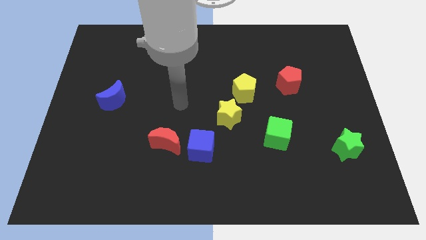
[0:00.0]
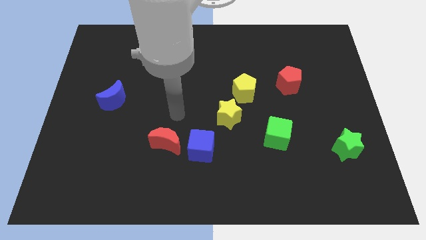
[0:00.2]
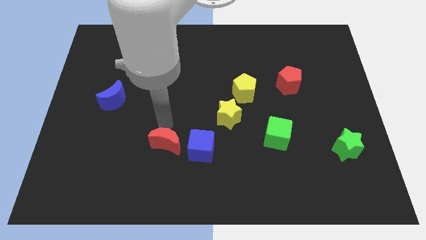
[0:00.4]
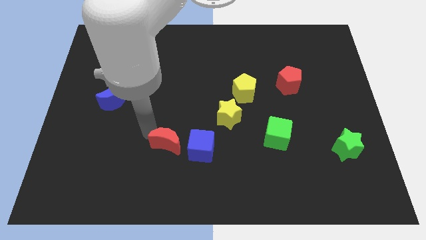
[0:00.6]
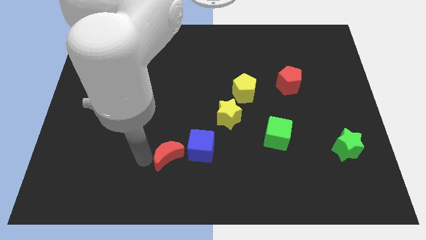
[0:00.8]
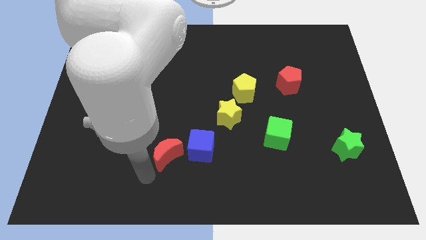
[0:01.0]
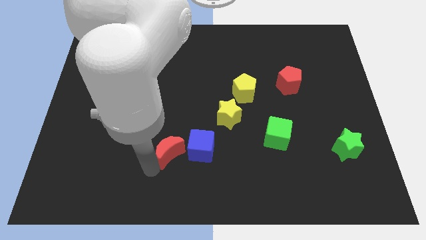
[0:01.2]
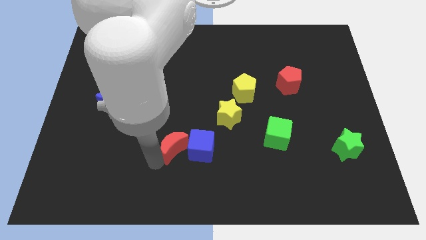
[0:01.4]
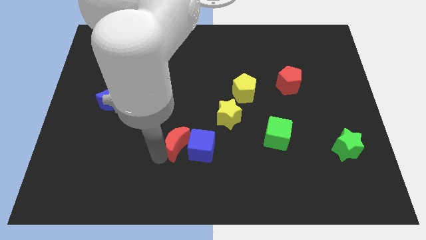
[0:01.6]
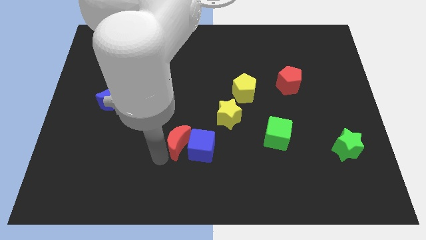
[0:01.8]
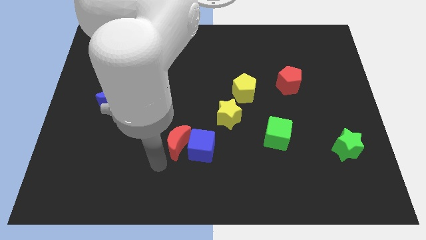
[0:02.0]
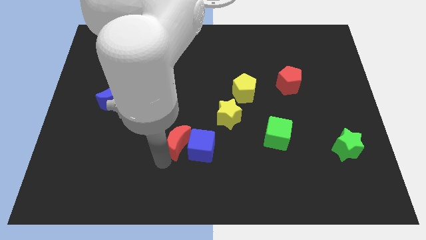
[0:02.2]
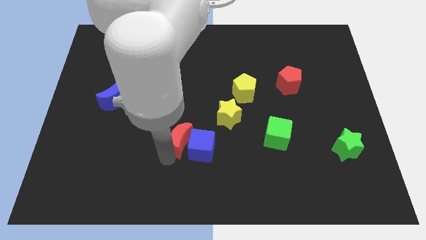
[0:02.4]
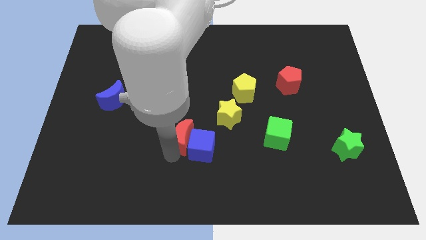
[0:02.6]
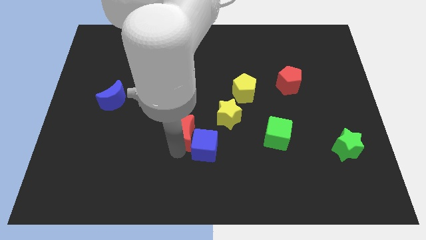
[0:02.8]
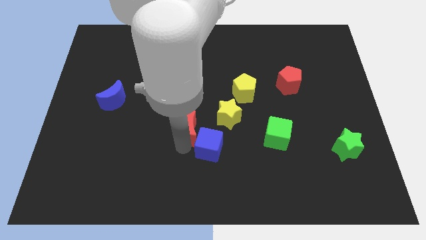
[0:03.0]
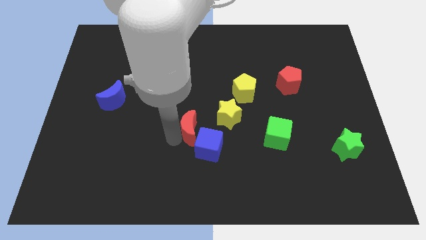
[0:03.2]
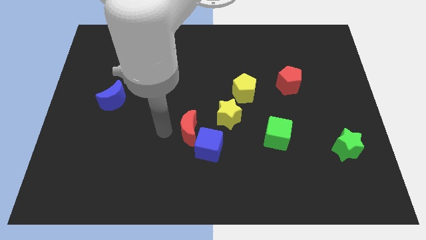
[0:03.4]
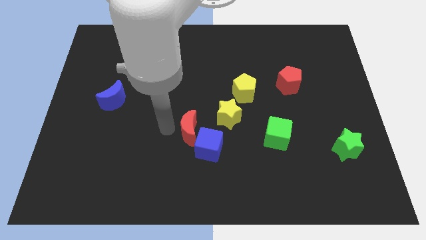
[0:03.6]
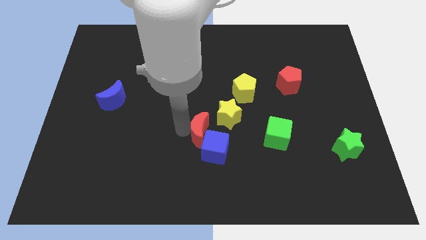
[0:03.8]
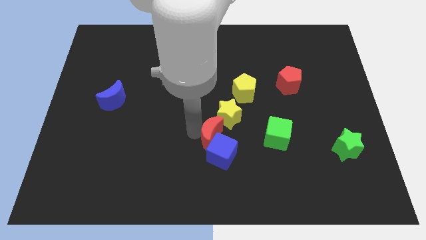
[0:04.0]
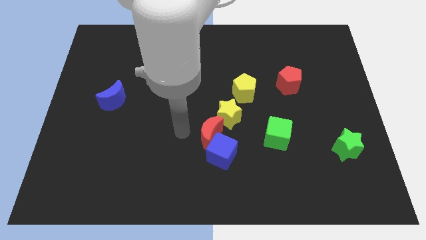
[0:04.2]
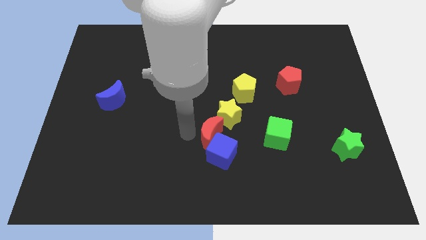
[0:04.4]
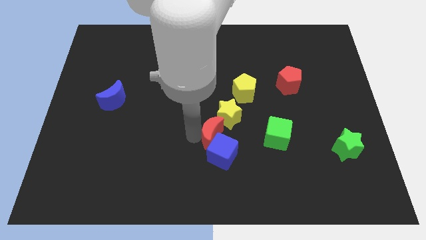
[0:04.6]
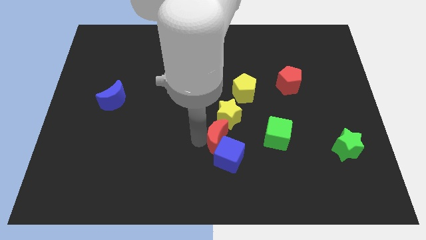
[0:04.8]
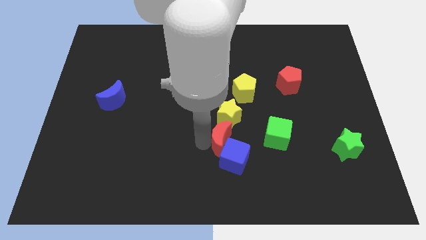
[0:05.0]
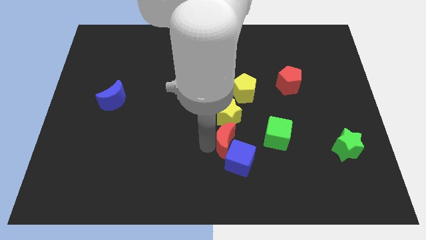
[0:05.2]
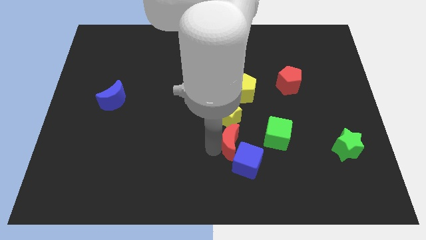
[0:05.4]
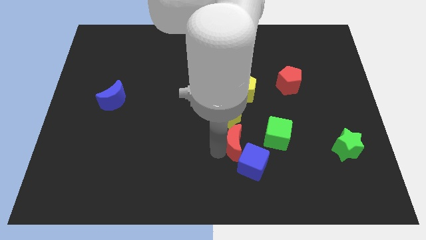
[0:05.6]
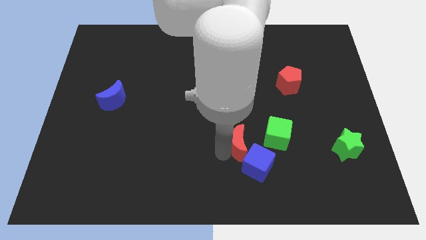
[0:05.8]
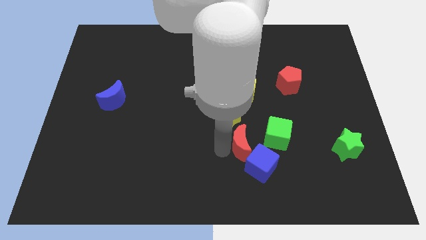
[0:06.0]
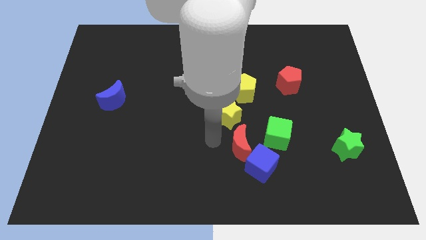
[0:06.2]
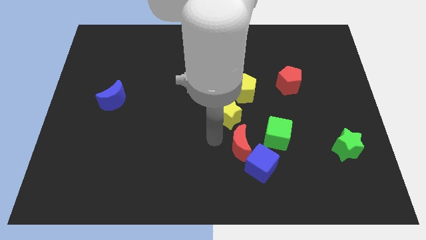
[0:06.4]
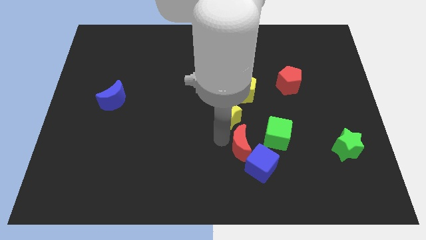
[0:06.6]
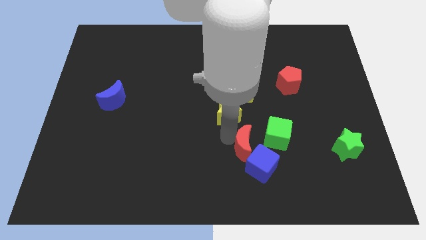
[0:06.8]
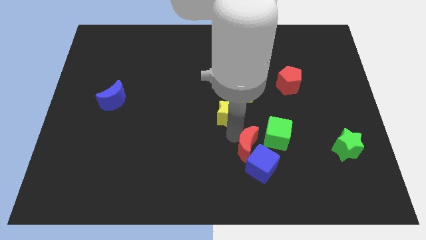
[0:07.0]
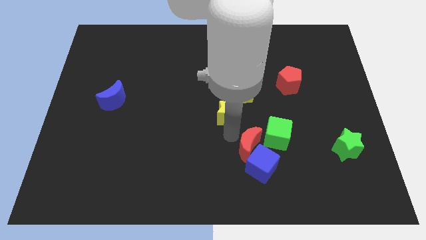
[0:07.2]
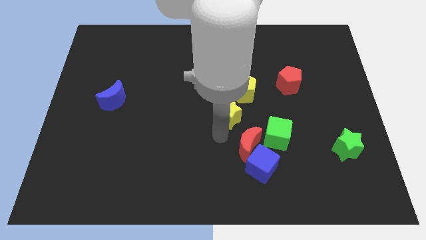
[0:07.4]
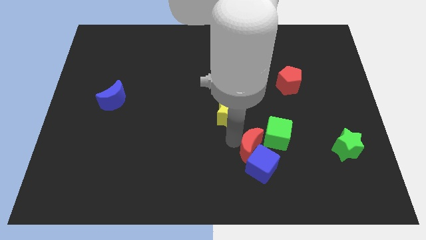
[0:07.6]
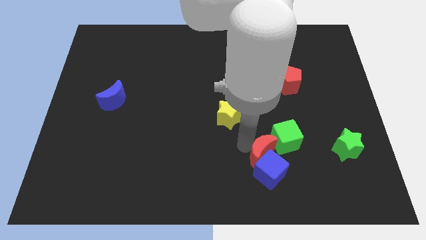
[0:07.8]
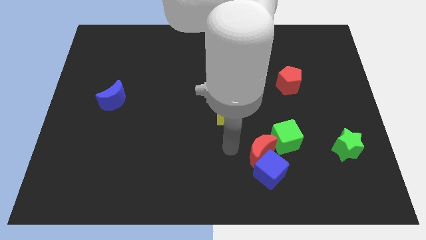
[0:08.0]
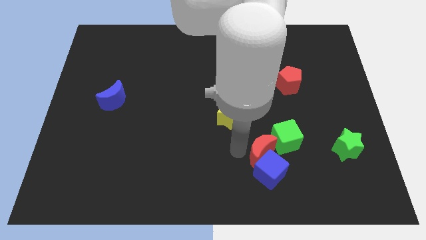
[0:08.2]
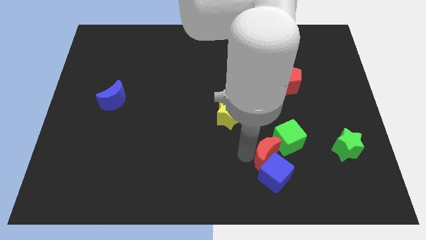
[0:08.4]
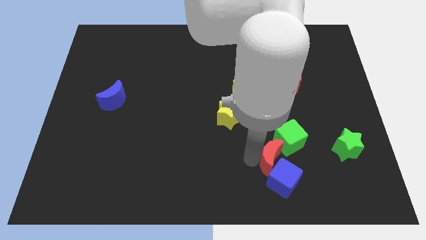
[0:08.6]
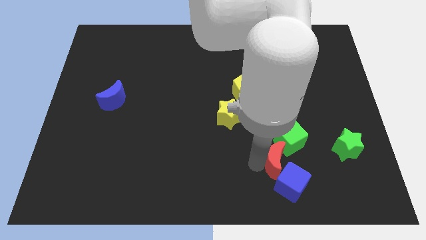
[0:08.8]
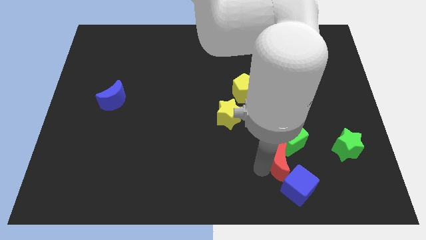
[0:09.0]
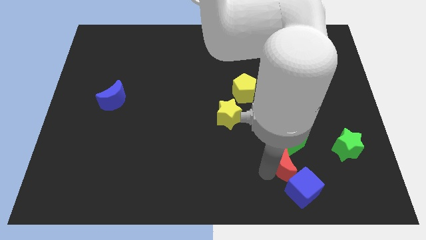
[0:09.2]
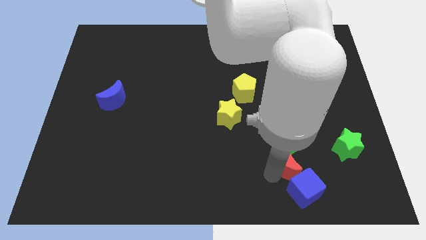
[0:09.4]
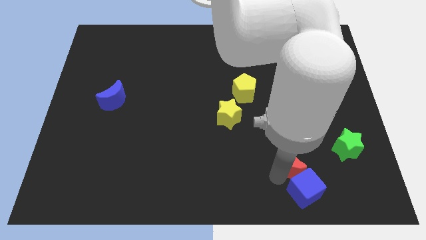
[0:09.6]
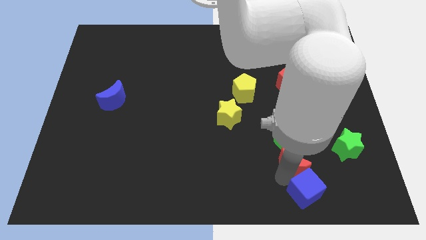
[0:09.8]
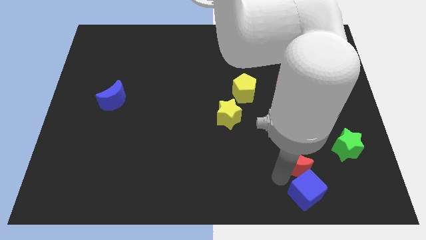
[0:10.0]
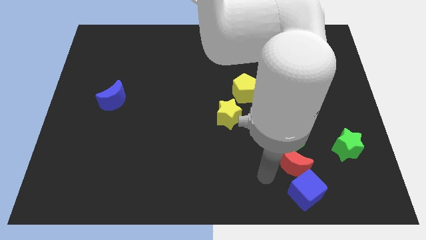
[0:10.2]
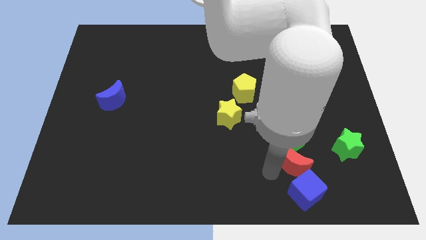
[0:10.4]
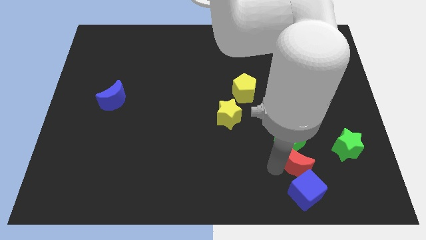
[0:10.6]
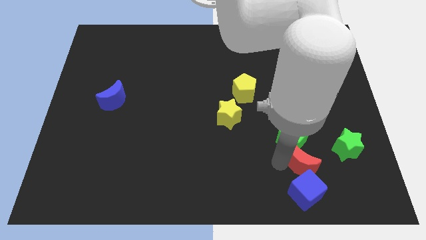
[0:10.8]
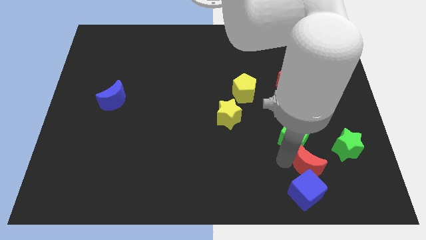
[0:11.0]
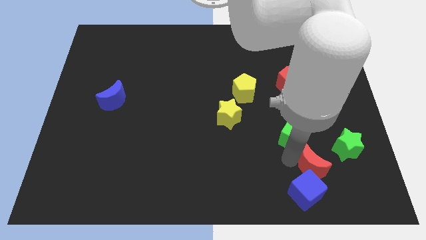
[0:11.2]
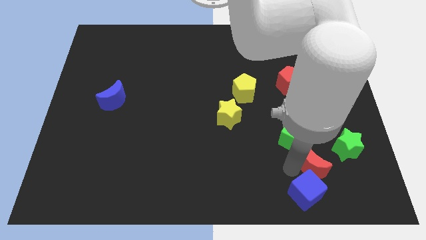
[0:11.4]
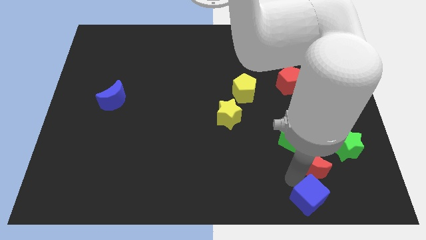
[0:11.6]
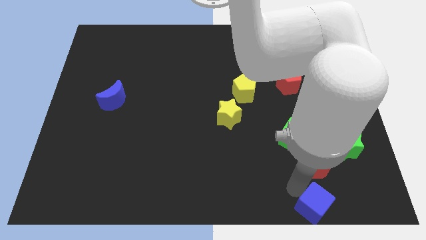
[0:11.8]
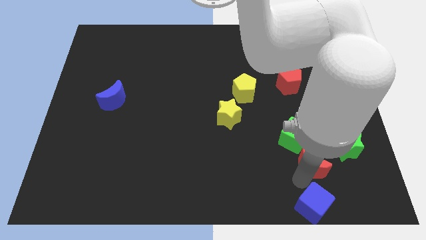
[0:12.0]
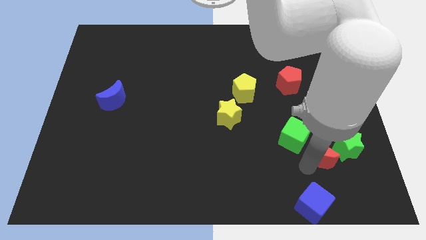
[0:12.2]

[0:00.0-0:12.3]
push the red moon to the green star
